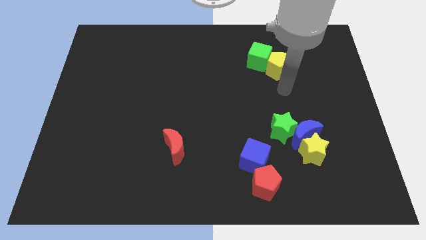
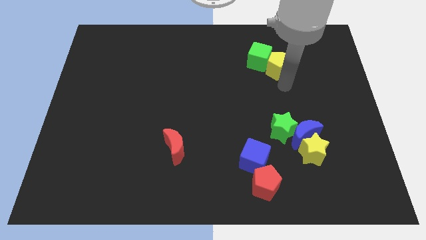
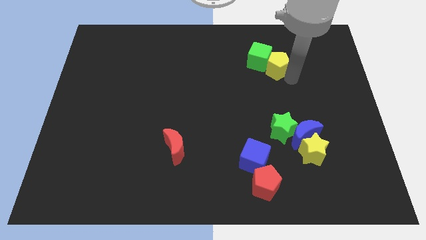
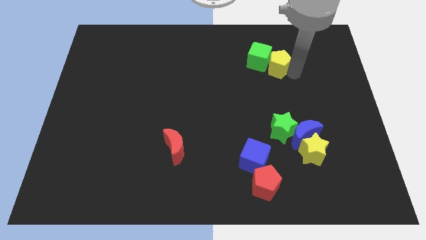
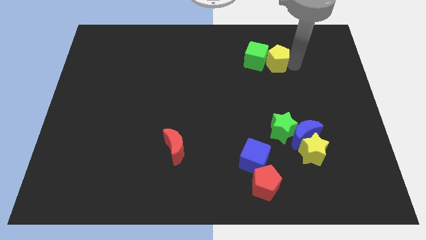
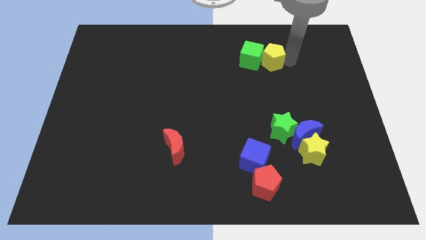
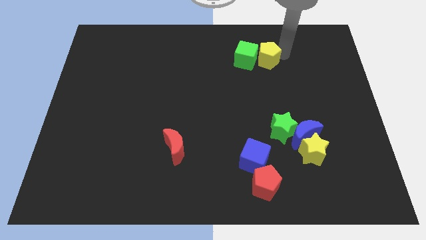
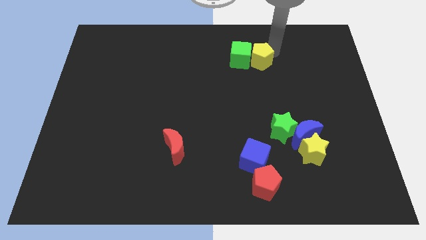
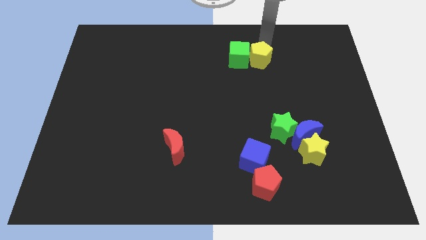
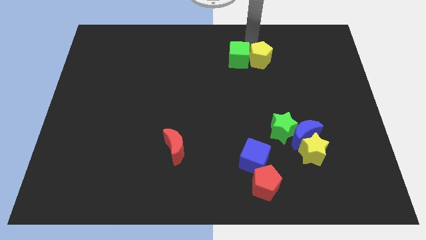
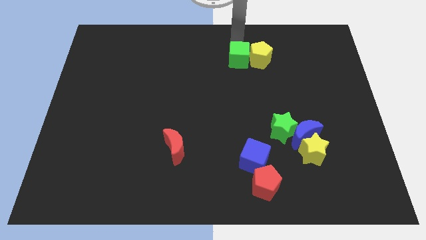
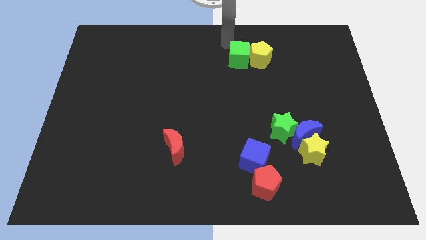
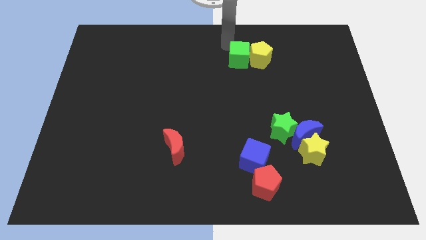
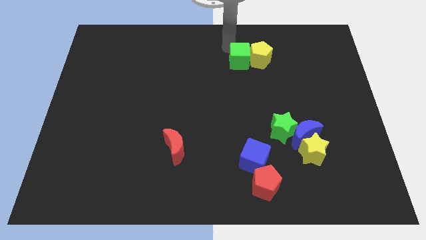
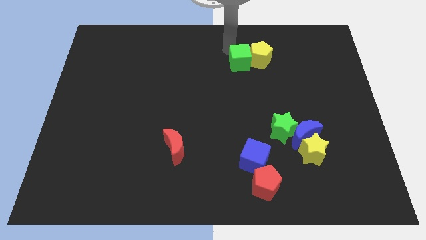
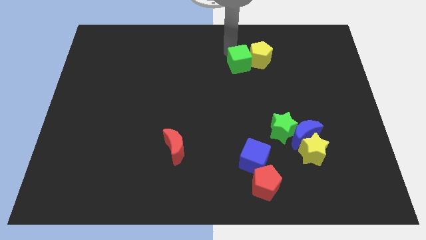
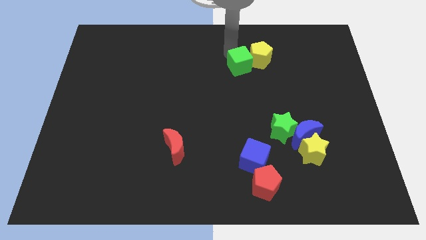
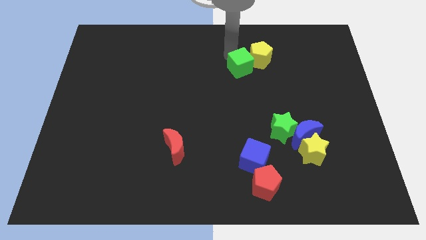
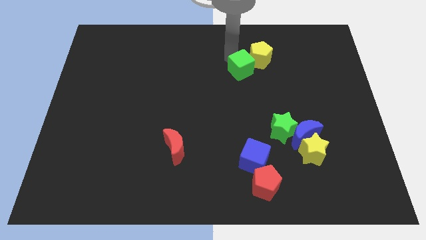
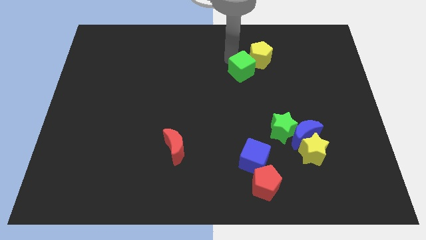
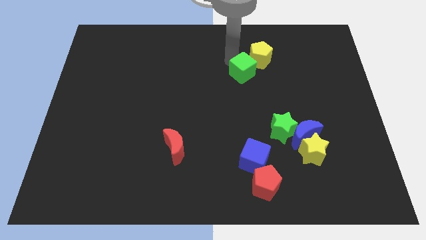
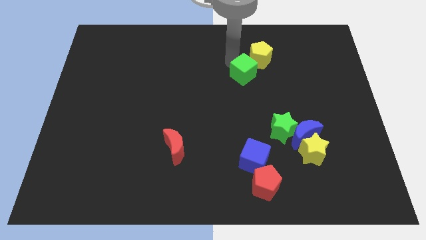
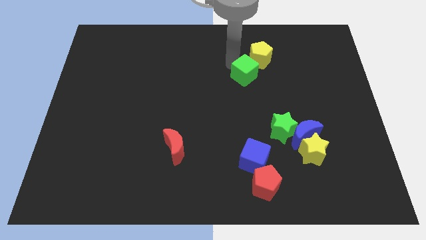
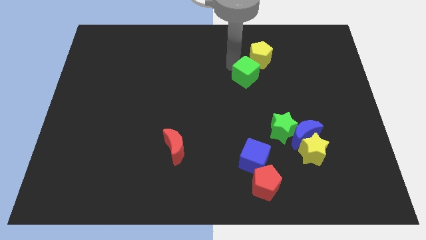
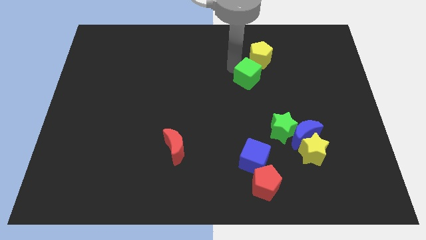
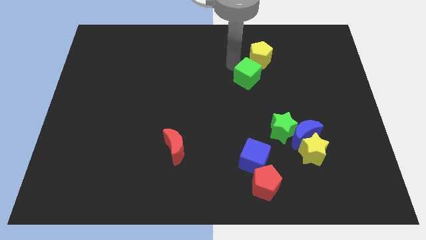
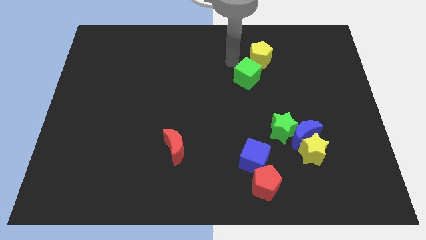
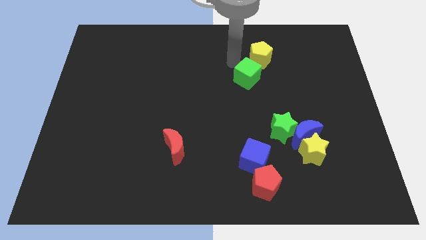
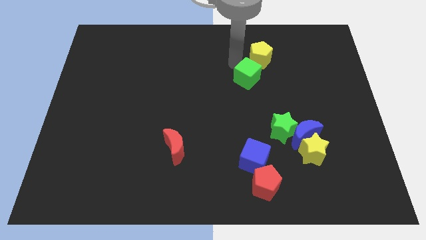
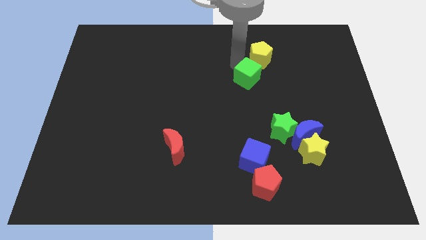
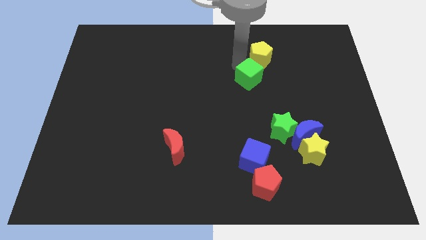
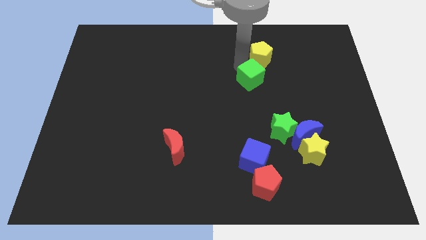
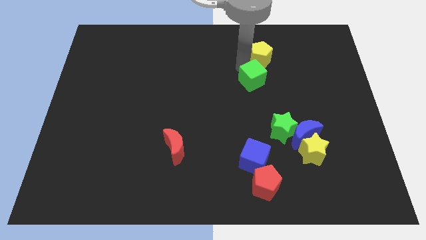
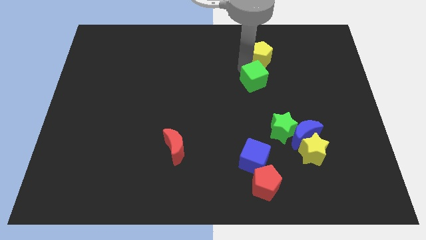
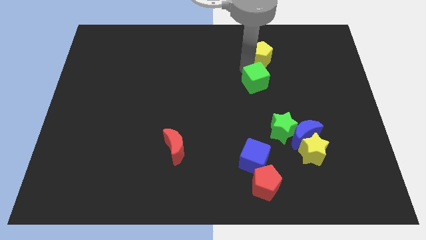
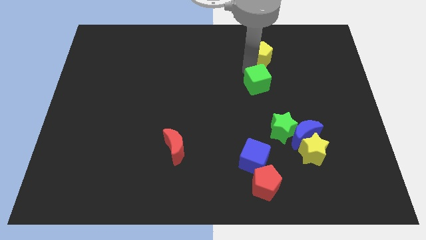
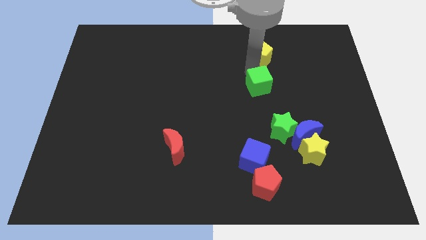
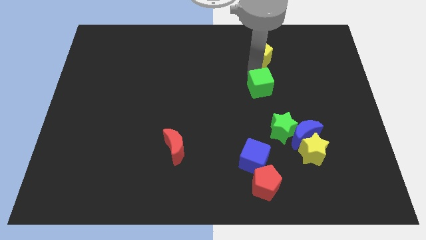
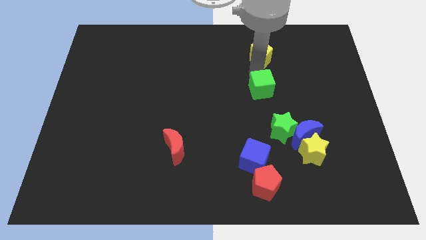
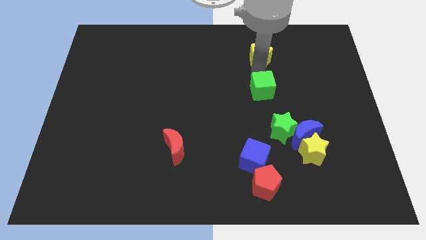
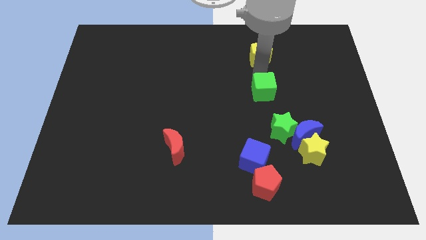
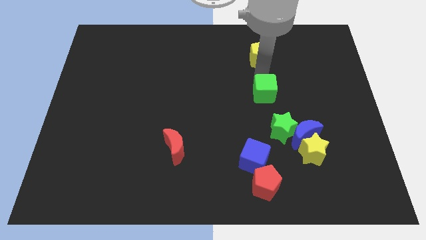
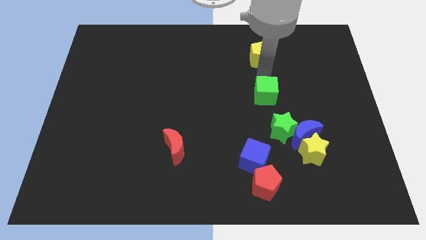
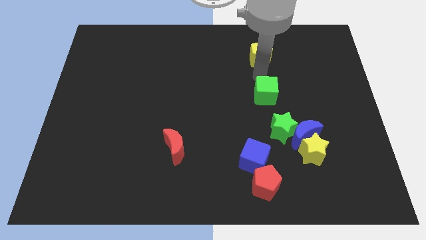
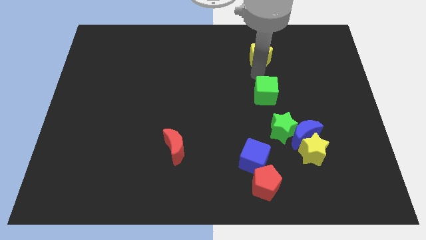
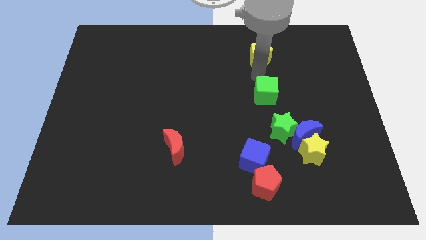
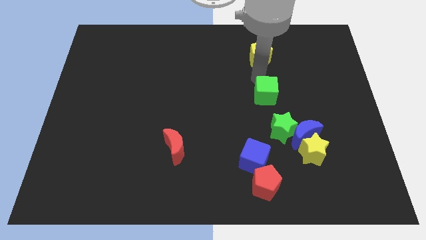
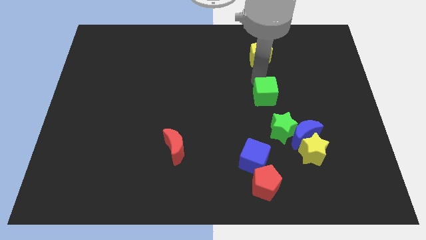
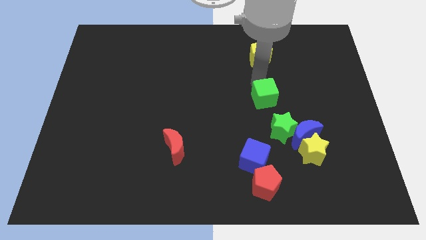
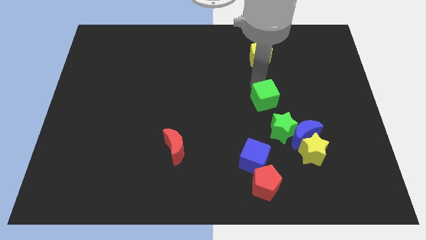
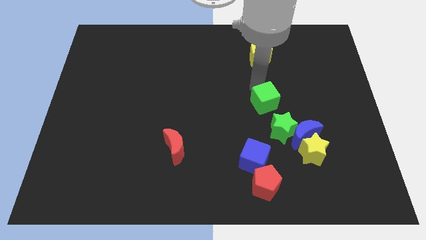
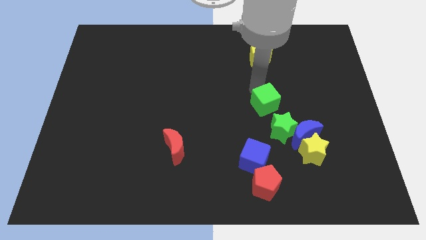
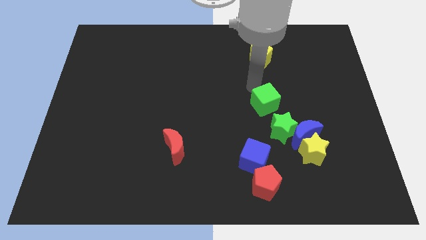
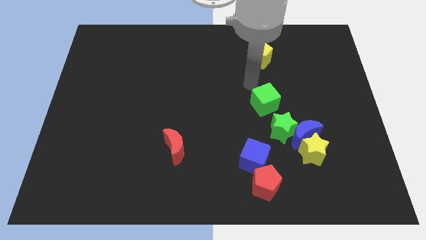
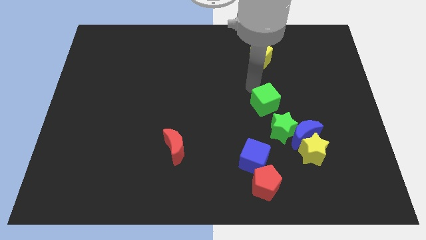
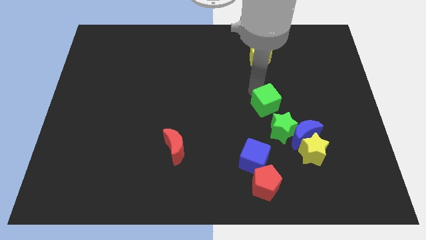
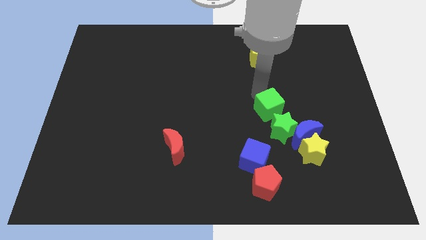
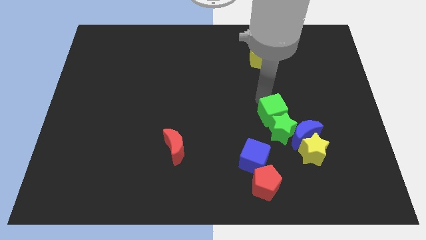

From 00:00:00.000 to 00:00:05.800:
slide the green cube close to the green star

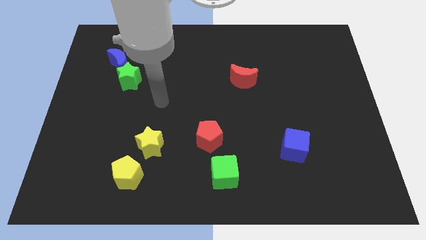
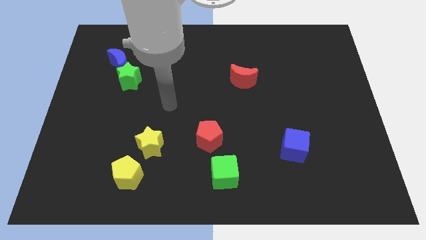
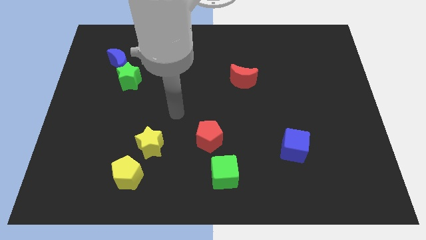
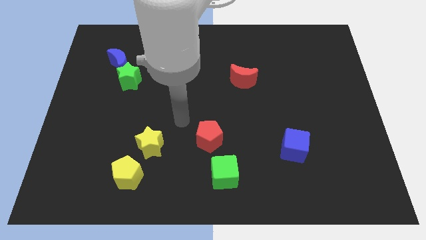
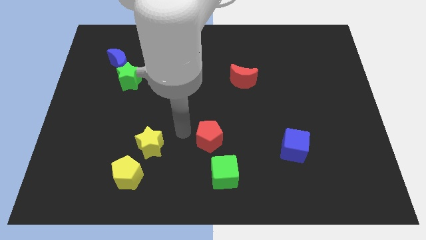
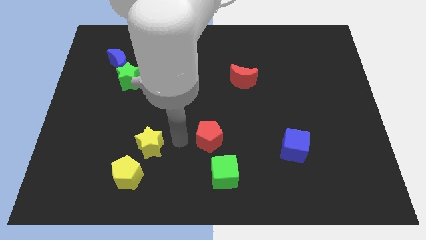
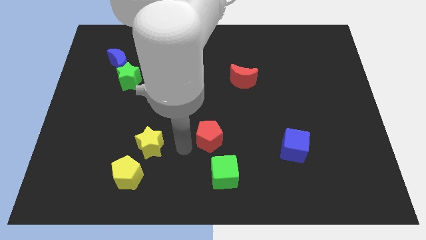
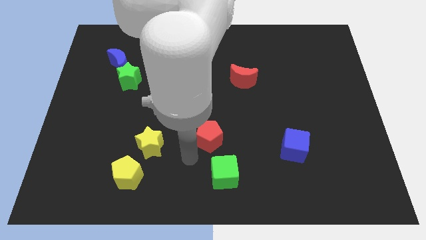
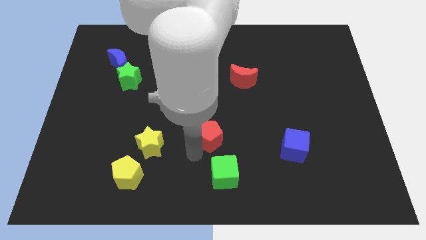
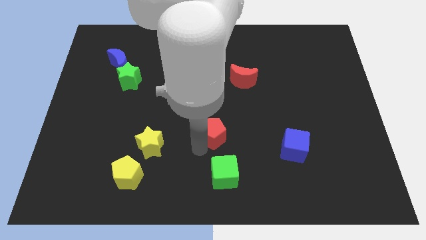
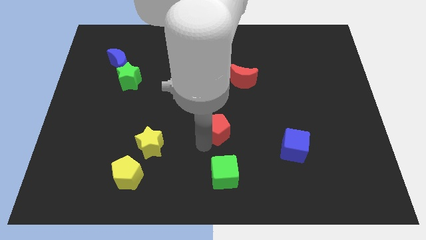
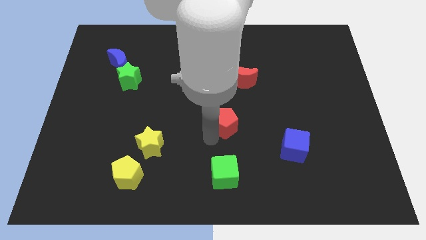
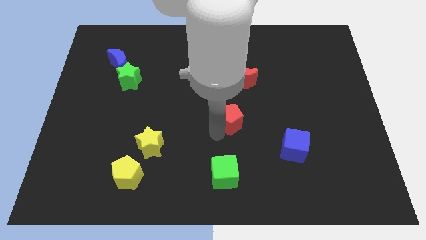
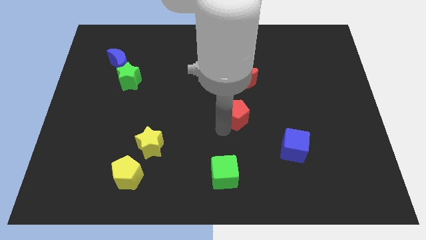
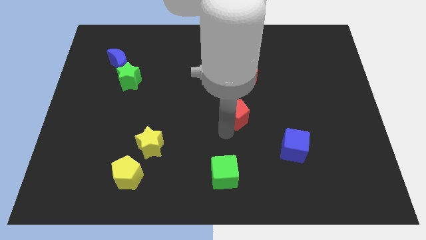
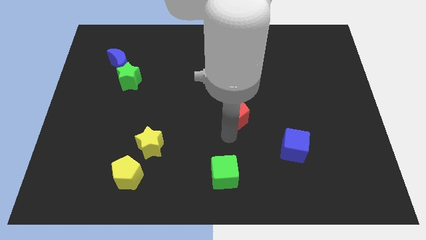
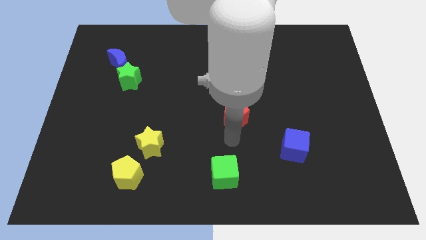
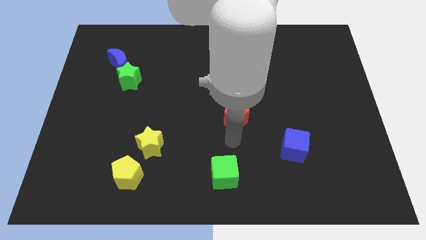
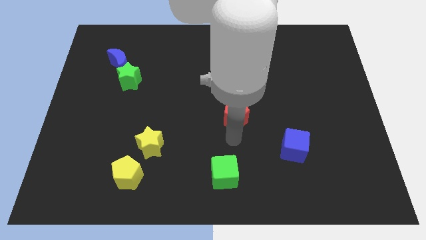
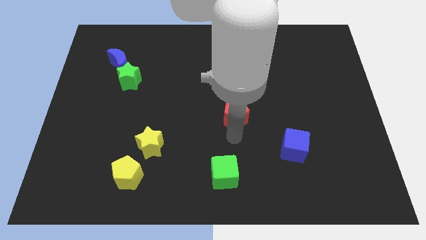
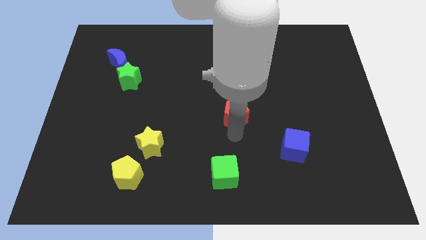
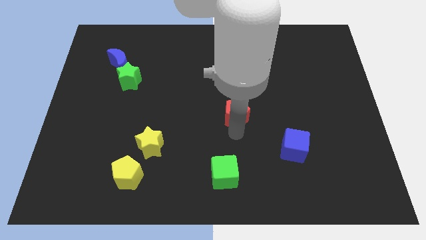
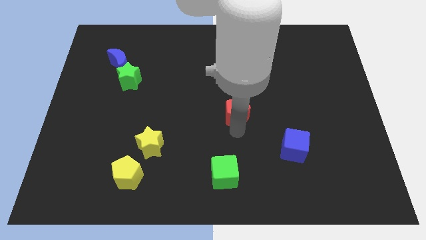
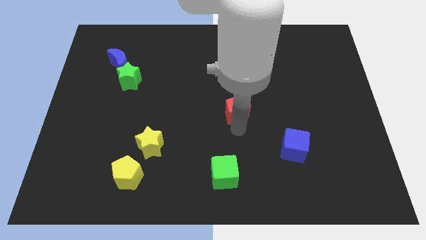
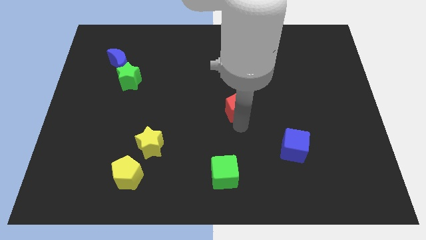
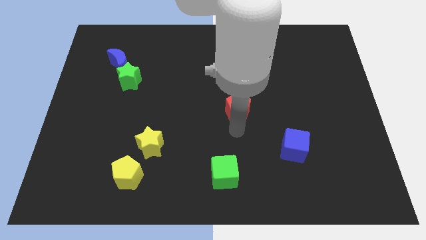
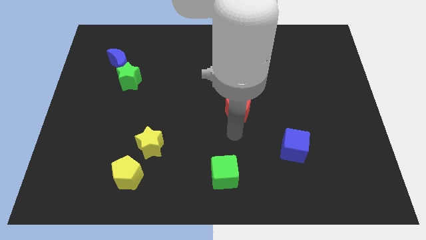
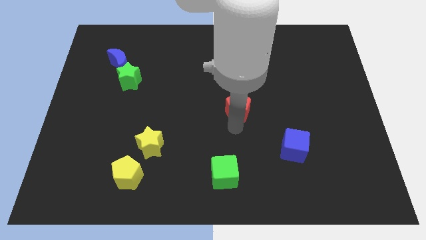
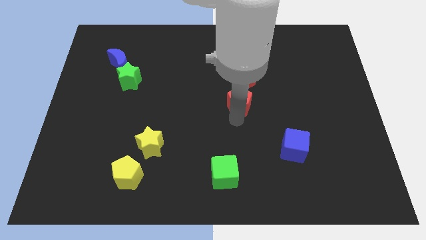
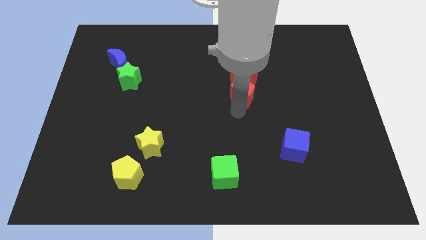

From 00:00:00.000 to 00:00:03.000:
move the red pentagon towards the red moon
